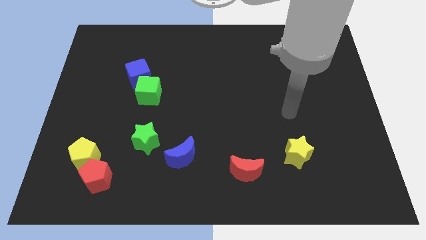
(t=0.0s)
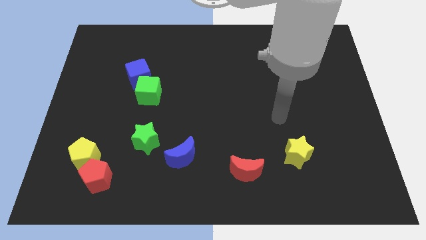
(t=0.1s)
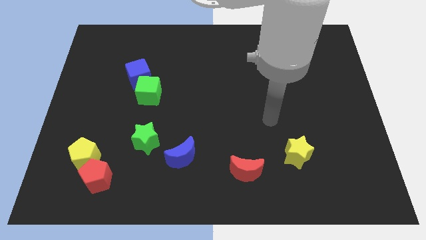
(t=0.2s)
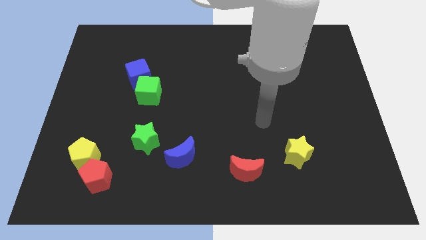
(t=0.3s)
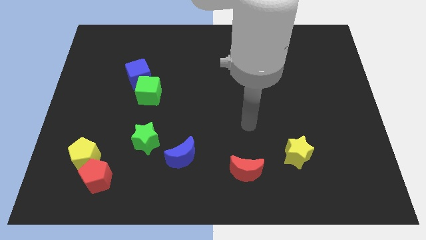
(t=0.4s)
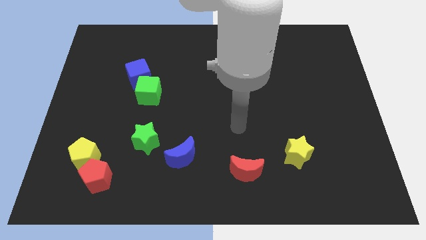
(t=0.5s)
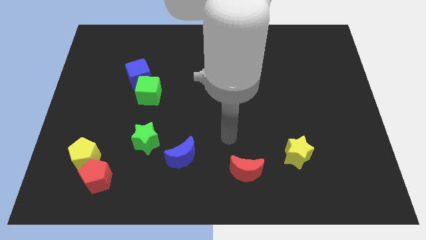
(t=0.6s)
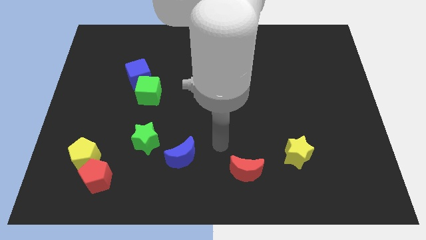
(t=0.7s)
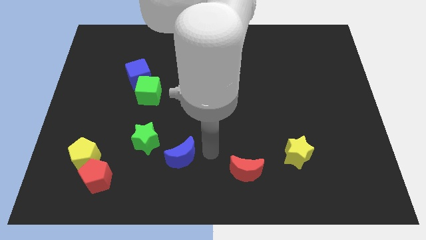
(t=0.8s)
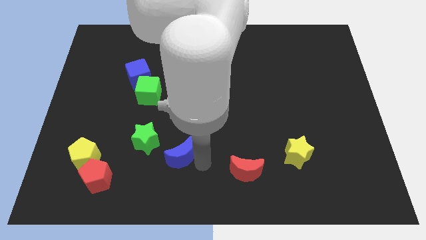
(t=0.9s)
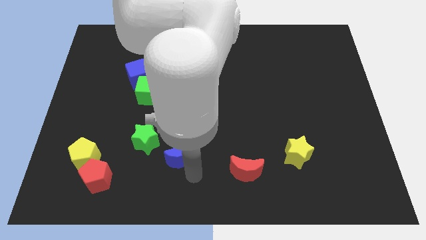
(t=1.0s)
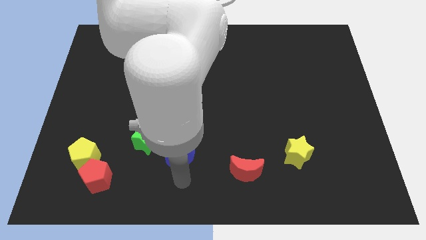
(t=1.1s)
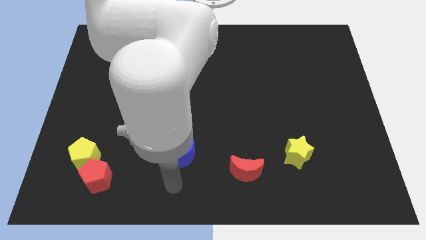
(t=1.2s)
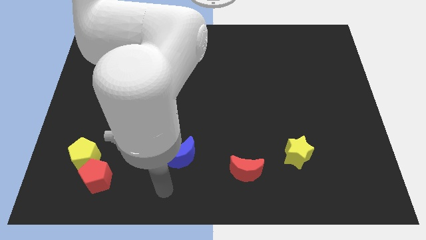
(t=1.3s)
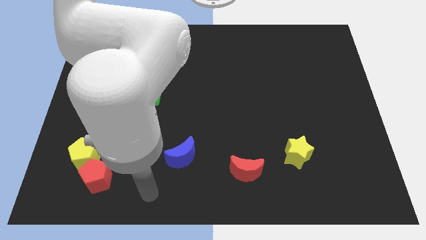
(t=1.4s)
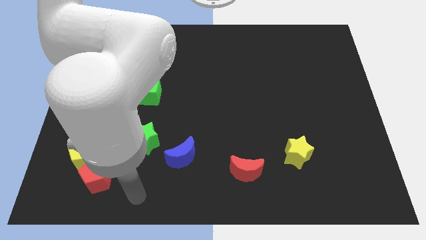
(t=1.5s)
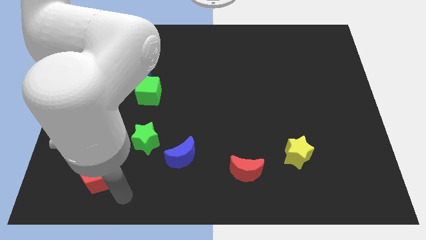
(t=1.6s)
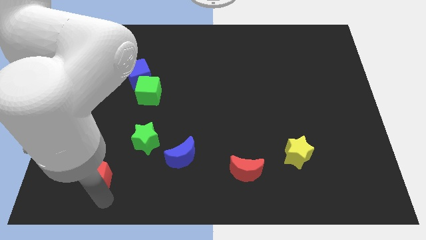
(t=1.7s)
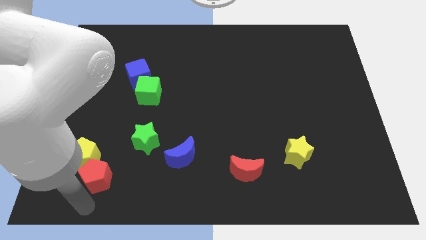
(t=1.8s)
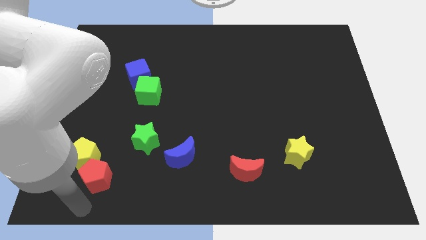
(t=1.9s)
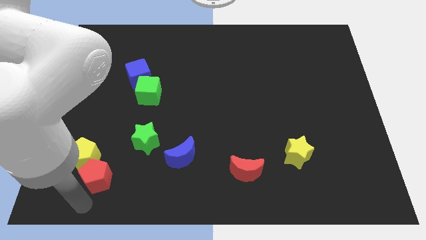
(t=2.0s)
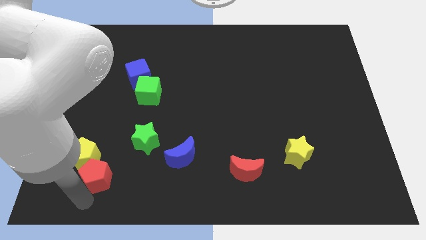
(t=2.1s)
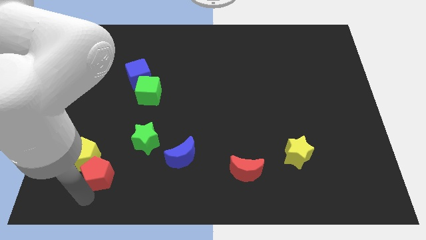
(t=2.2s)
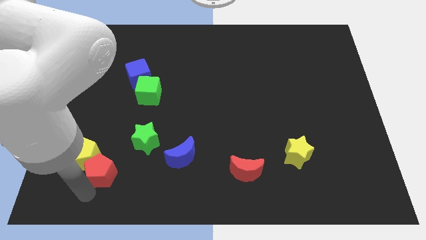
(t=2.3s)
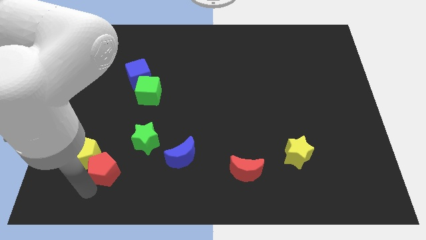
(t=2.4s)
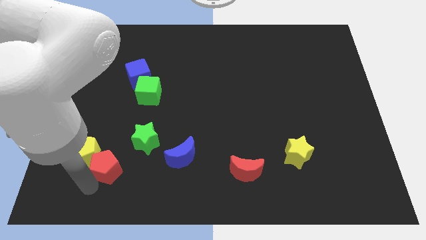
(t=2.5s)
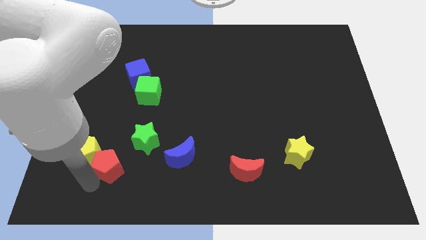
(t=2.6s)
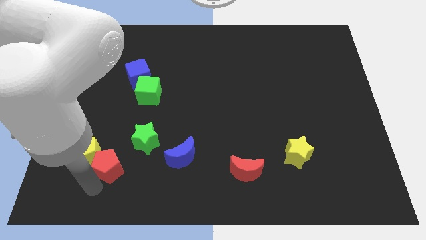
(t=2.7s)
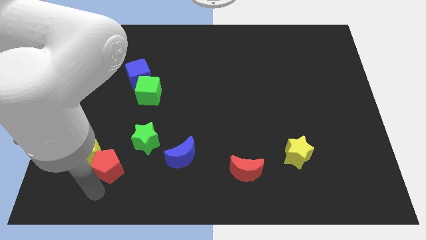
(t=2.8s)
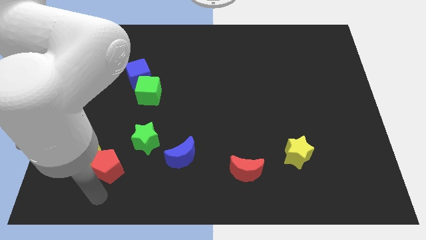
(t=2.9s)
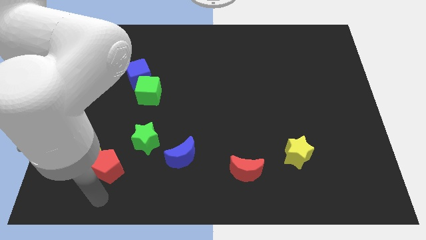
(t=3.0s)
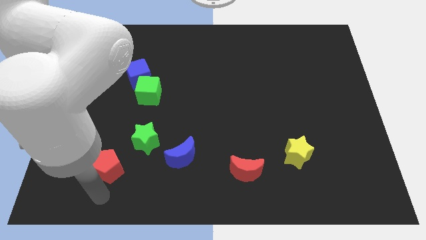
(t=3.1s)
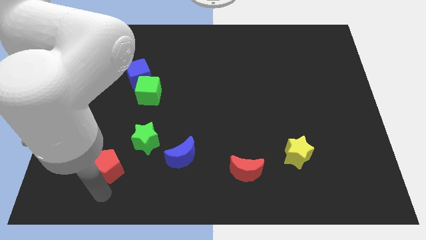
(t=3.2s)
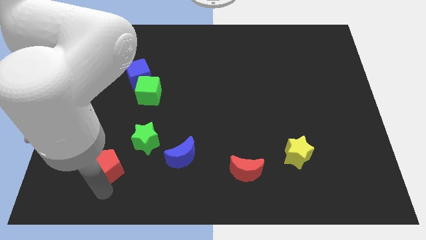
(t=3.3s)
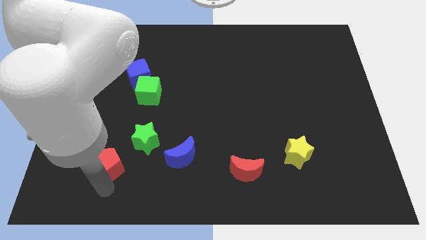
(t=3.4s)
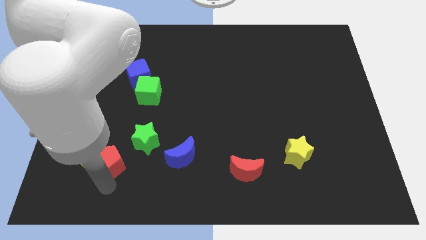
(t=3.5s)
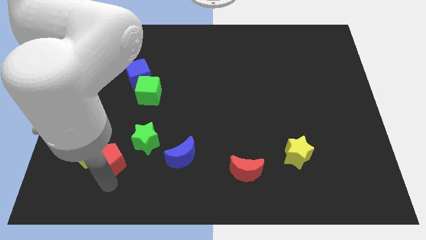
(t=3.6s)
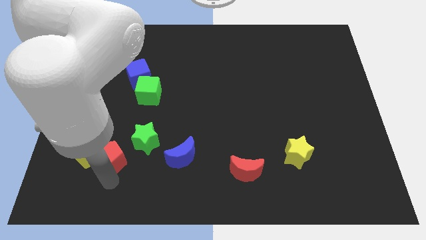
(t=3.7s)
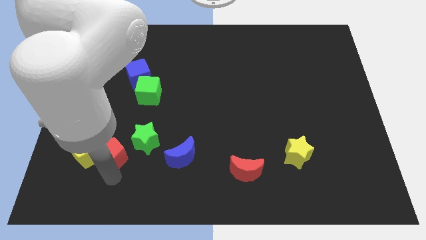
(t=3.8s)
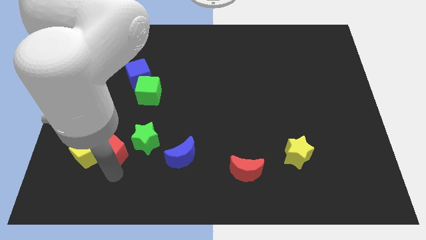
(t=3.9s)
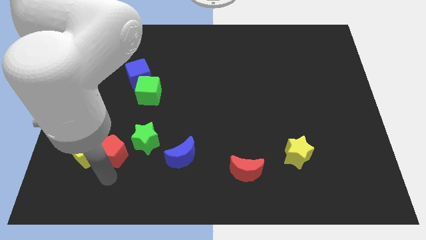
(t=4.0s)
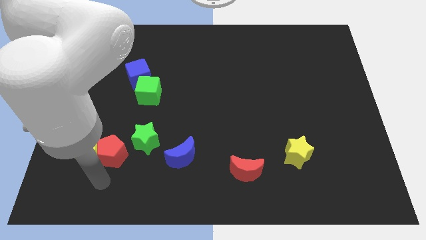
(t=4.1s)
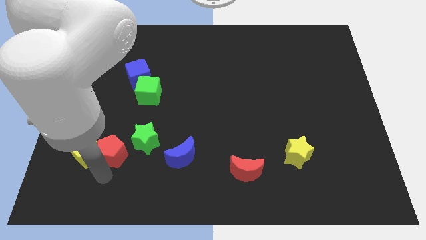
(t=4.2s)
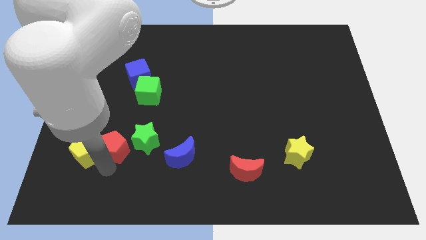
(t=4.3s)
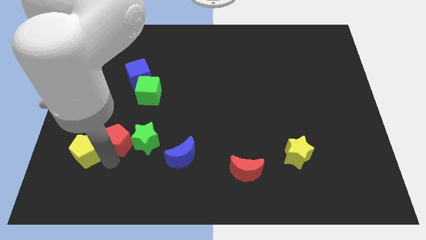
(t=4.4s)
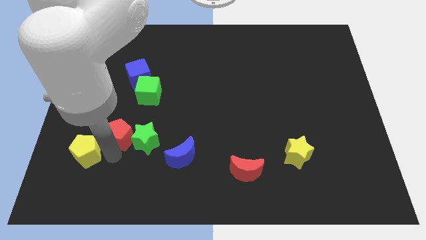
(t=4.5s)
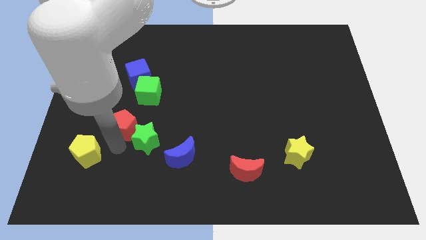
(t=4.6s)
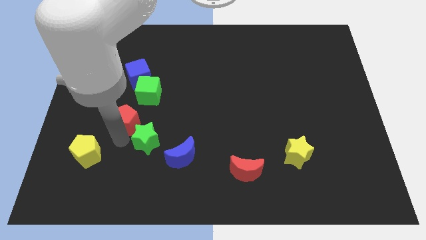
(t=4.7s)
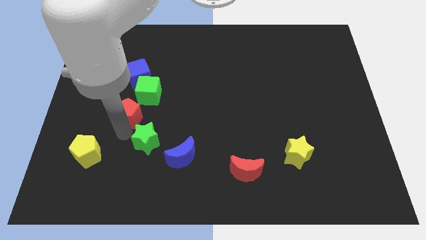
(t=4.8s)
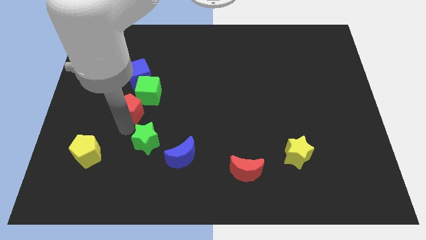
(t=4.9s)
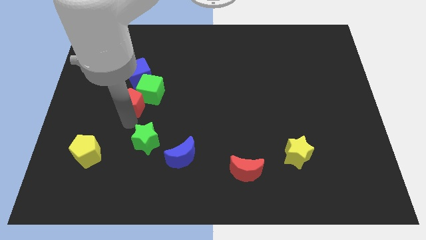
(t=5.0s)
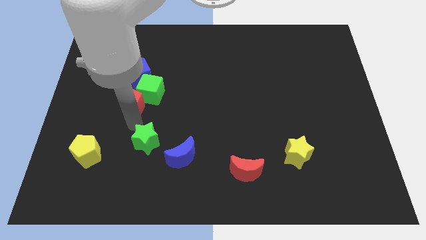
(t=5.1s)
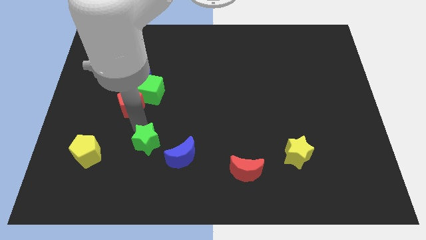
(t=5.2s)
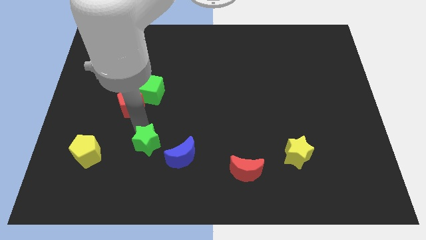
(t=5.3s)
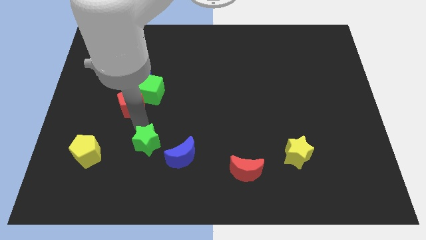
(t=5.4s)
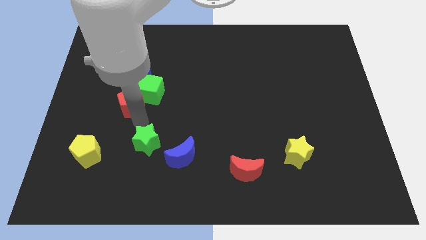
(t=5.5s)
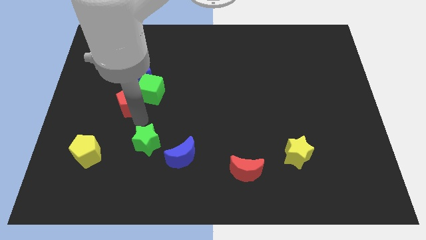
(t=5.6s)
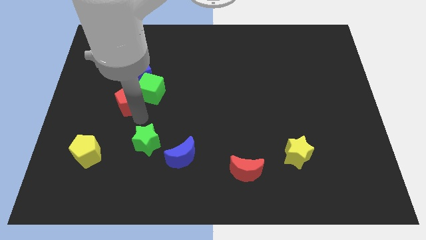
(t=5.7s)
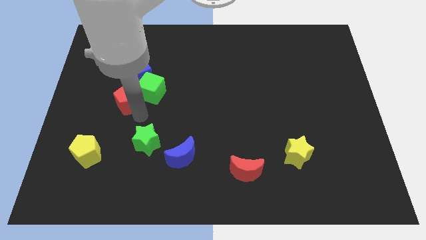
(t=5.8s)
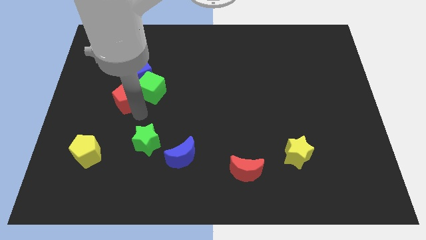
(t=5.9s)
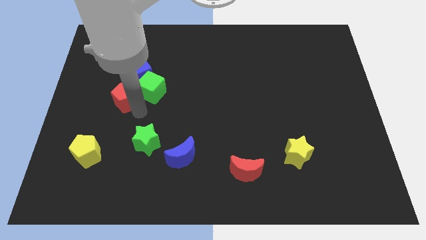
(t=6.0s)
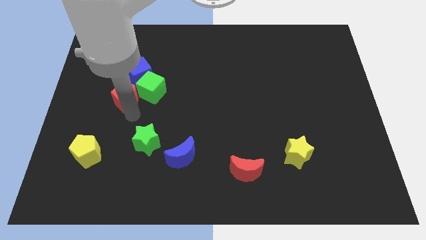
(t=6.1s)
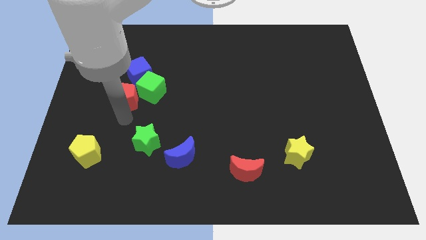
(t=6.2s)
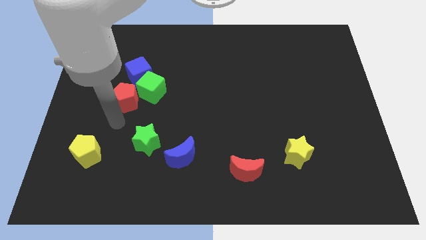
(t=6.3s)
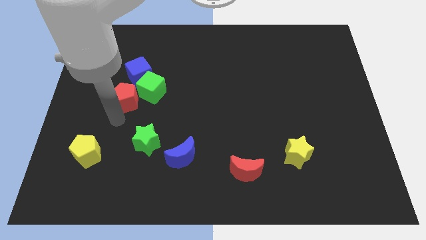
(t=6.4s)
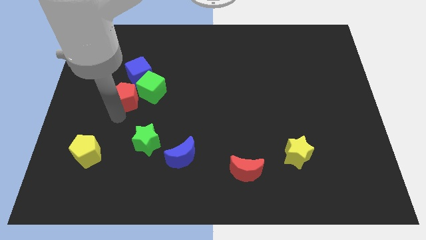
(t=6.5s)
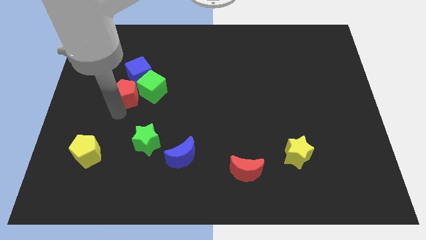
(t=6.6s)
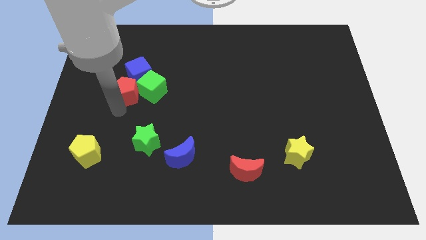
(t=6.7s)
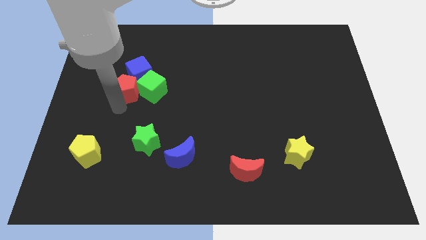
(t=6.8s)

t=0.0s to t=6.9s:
move the red pentagon next to the blue cube

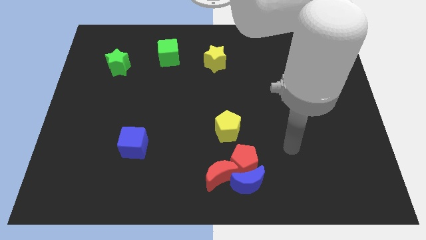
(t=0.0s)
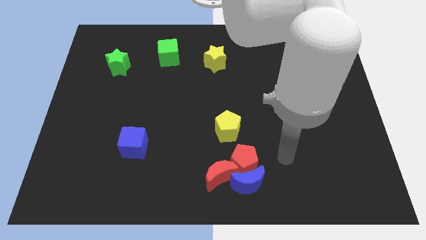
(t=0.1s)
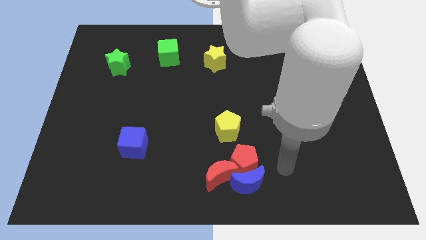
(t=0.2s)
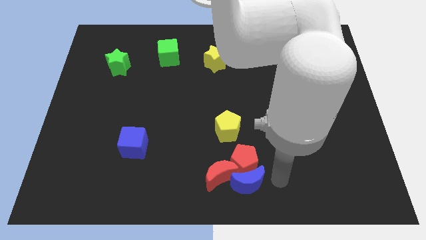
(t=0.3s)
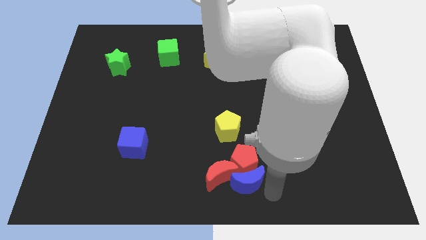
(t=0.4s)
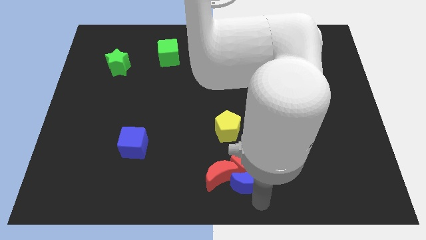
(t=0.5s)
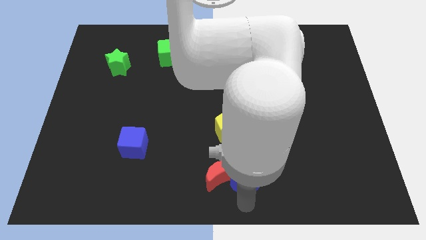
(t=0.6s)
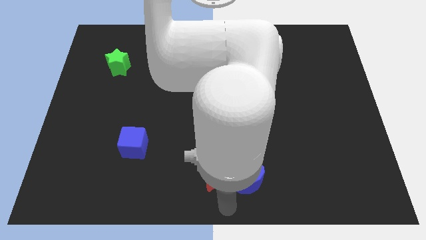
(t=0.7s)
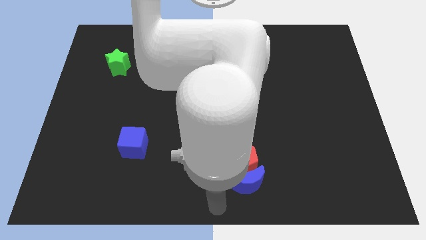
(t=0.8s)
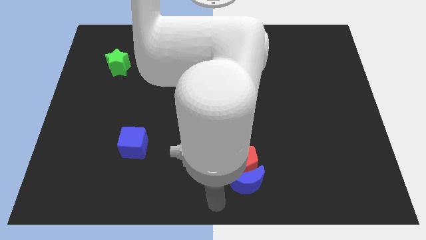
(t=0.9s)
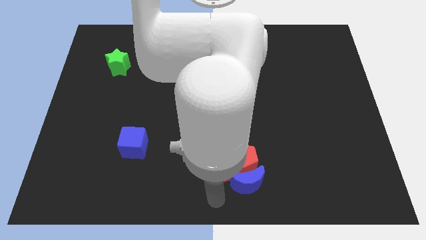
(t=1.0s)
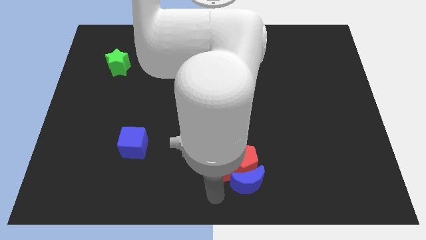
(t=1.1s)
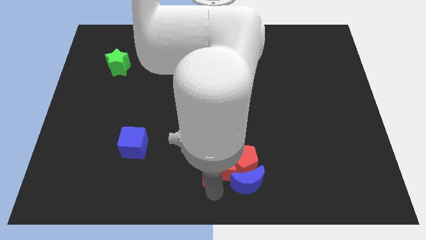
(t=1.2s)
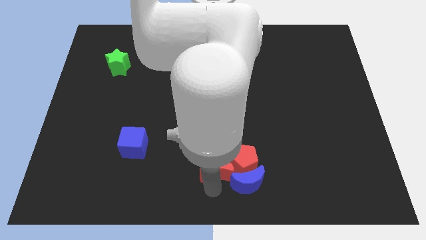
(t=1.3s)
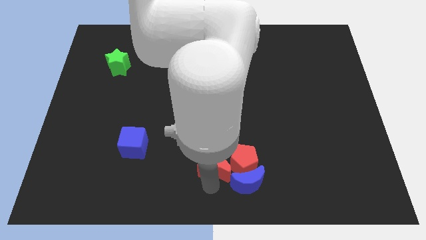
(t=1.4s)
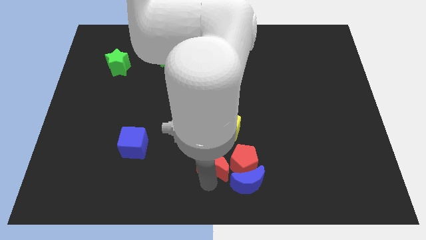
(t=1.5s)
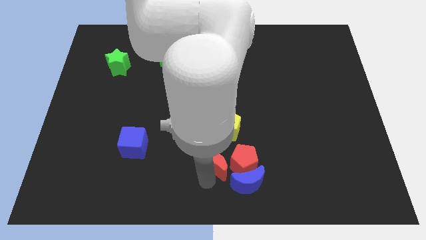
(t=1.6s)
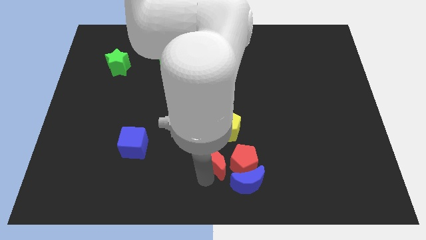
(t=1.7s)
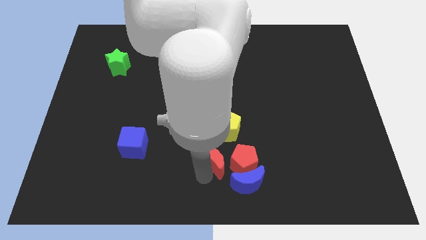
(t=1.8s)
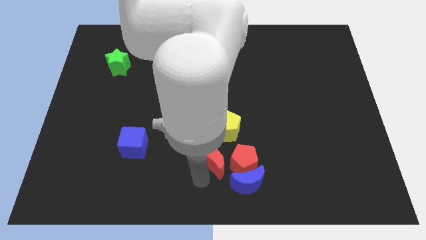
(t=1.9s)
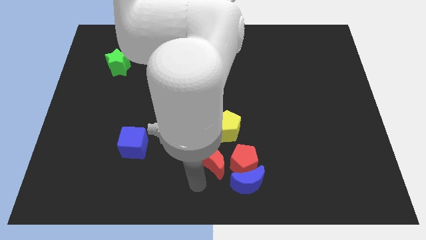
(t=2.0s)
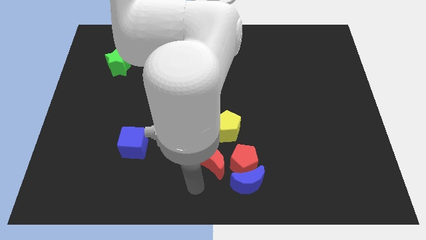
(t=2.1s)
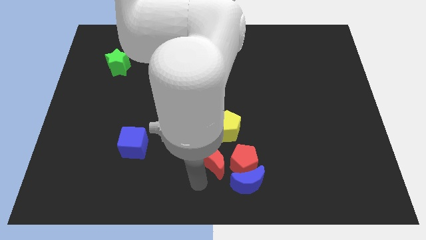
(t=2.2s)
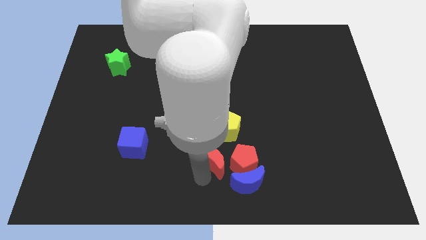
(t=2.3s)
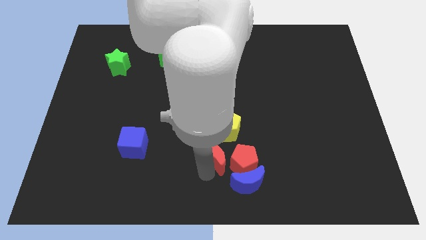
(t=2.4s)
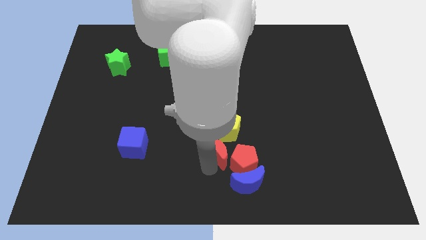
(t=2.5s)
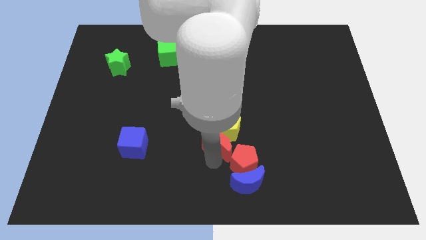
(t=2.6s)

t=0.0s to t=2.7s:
move the red moon close to the yellow pentagon
